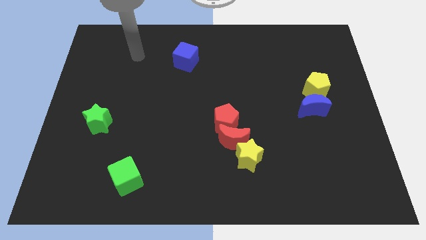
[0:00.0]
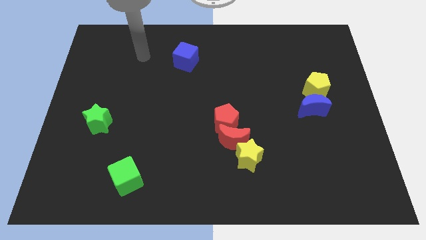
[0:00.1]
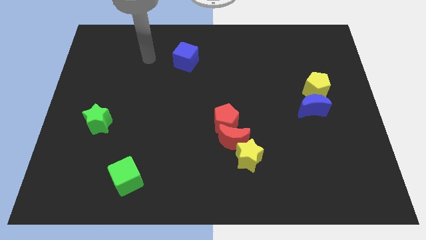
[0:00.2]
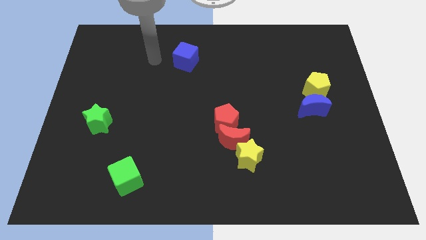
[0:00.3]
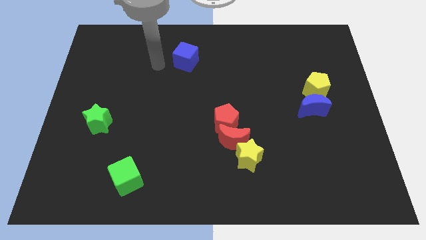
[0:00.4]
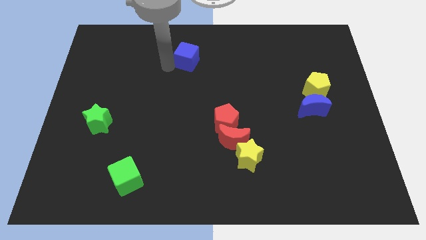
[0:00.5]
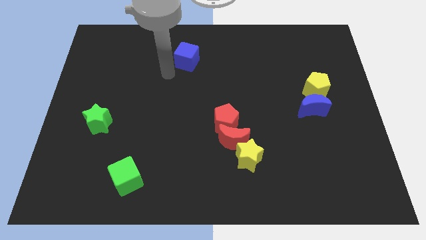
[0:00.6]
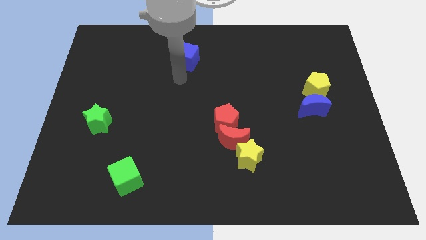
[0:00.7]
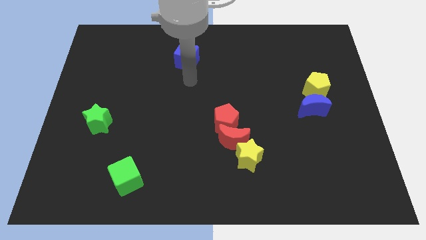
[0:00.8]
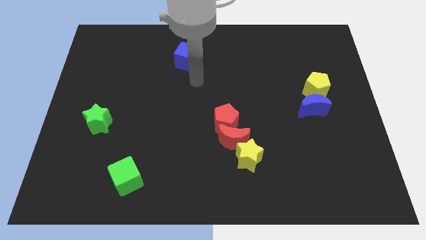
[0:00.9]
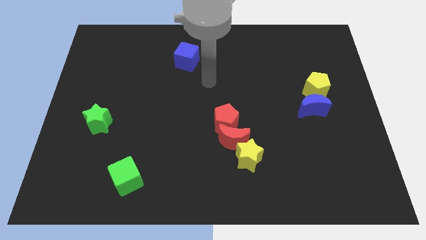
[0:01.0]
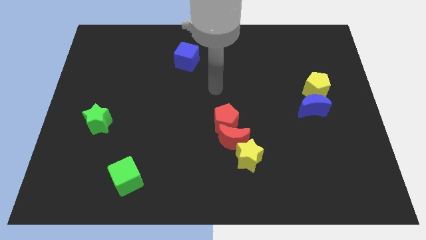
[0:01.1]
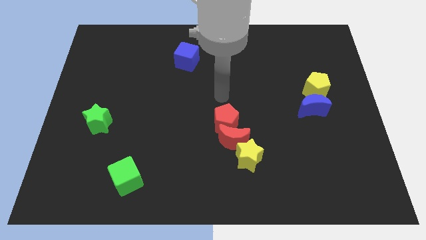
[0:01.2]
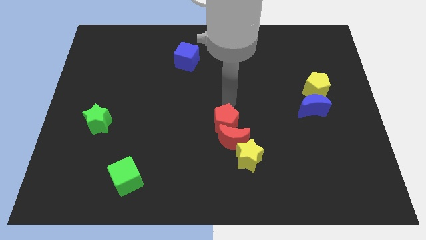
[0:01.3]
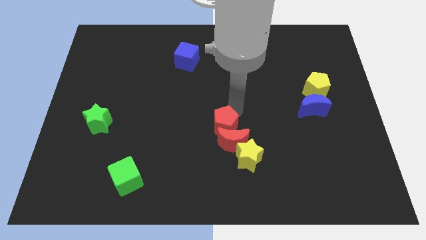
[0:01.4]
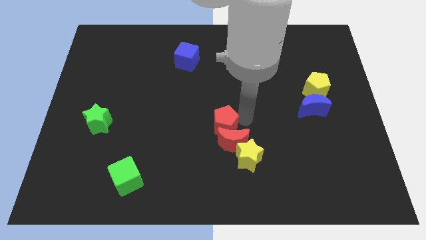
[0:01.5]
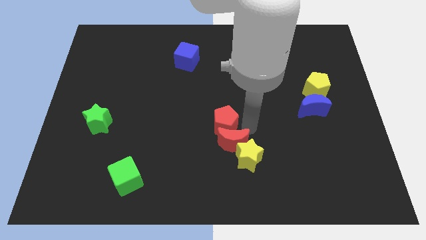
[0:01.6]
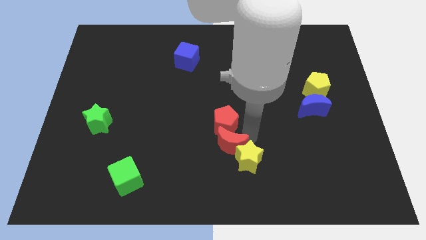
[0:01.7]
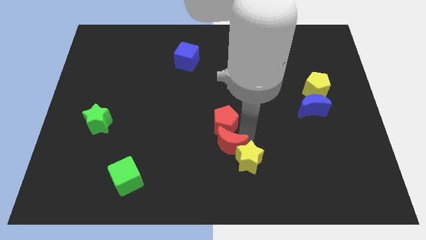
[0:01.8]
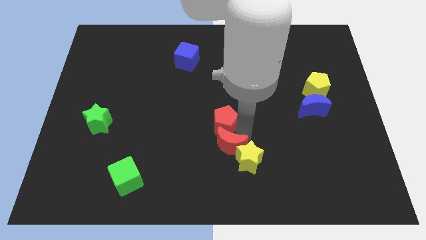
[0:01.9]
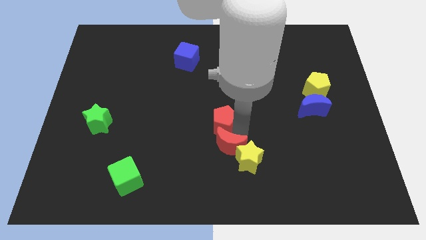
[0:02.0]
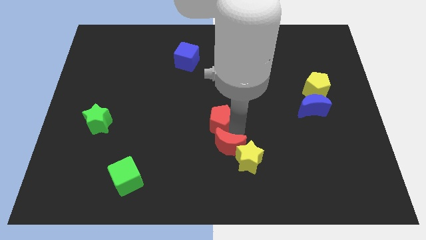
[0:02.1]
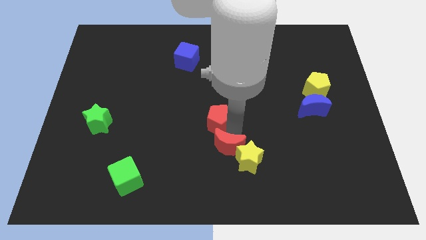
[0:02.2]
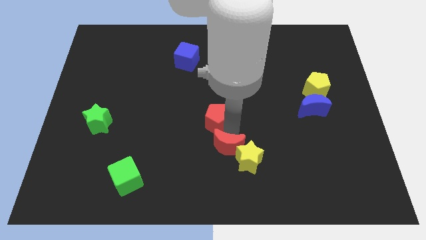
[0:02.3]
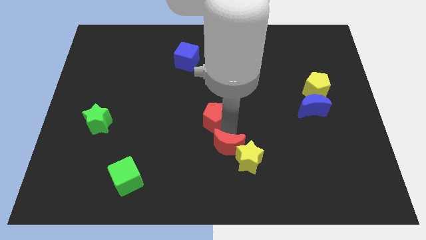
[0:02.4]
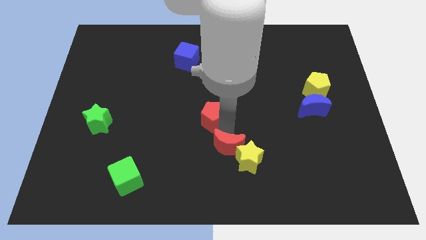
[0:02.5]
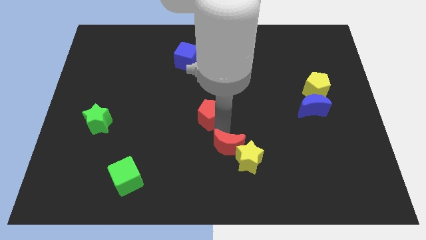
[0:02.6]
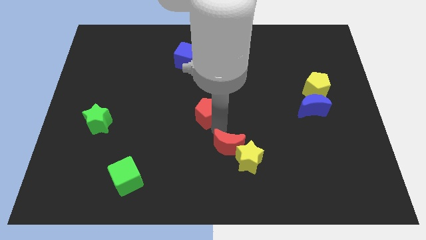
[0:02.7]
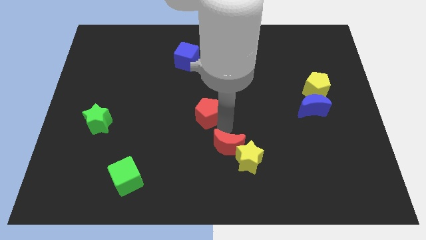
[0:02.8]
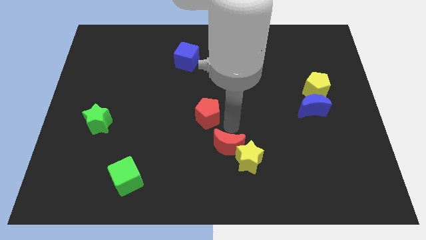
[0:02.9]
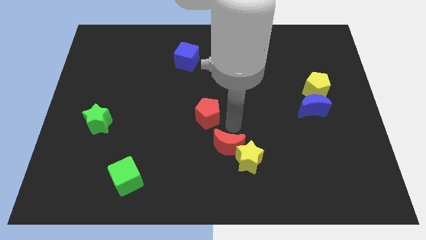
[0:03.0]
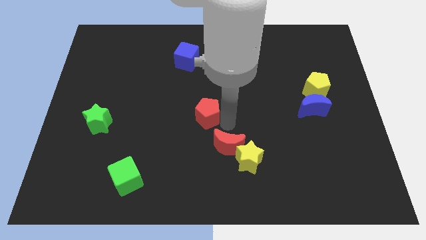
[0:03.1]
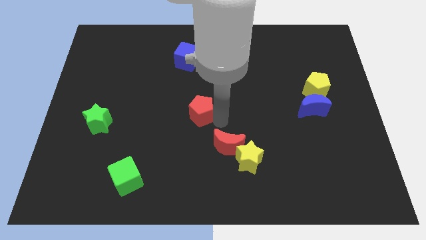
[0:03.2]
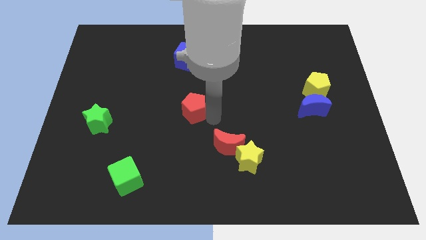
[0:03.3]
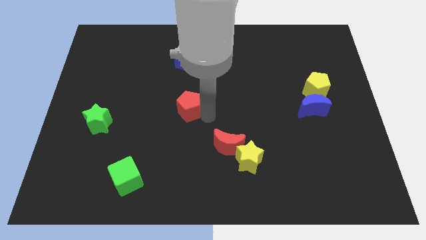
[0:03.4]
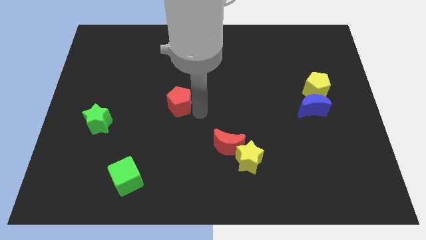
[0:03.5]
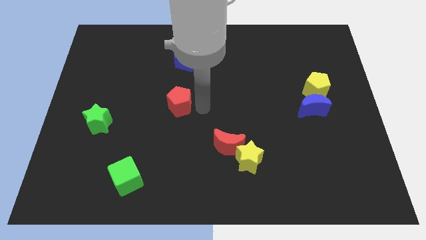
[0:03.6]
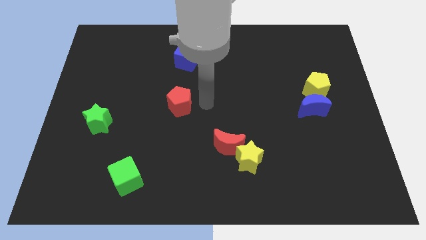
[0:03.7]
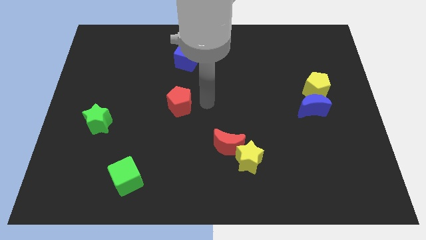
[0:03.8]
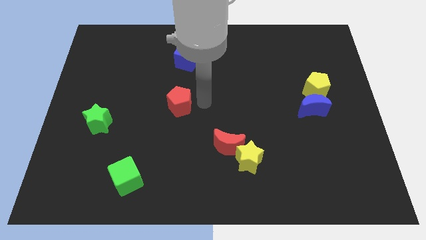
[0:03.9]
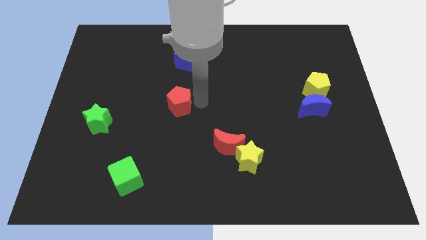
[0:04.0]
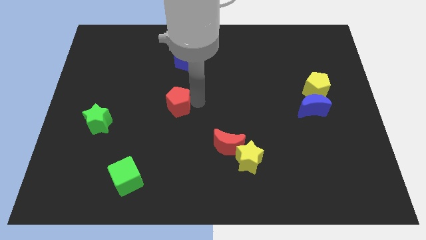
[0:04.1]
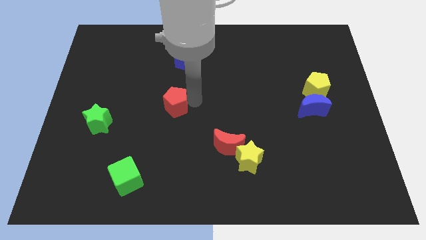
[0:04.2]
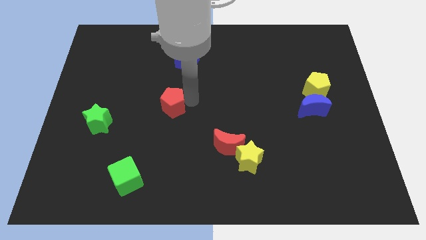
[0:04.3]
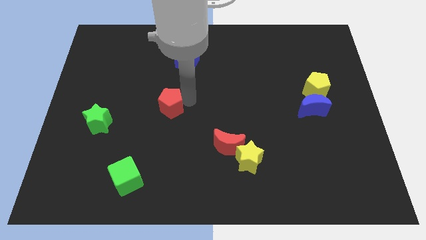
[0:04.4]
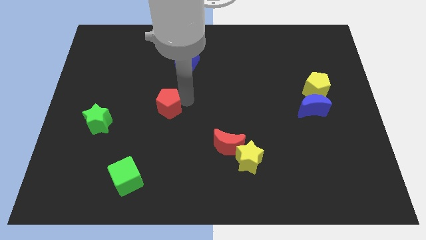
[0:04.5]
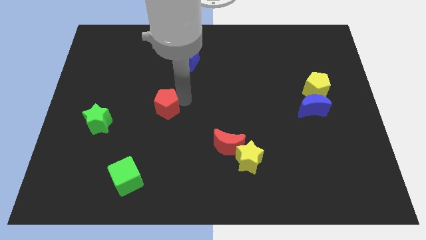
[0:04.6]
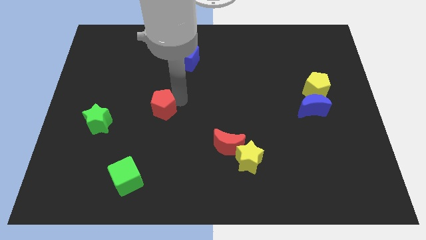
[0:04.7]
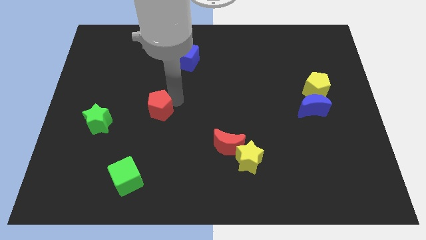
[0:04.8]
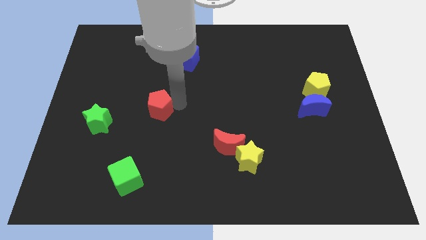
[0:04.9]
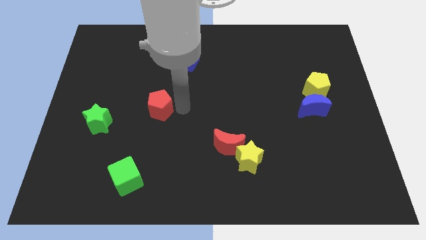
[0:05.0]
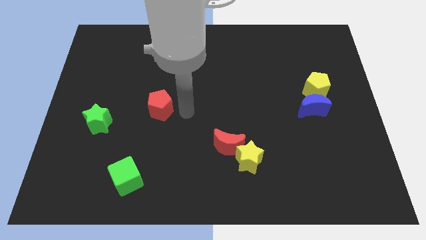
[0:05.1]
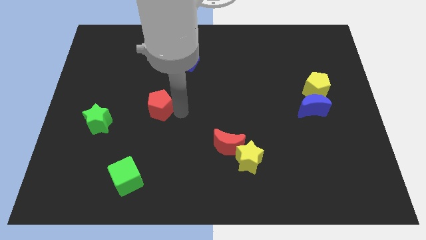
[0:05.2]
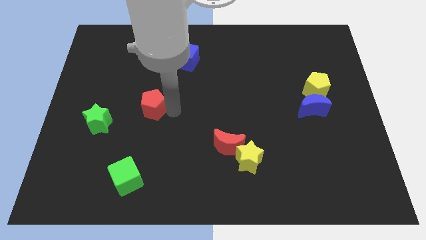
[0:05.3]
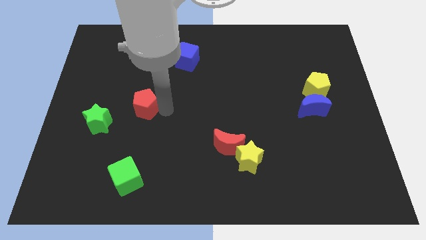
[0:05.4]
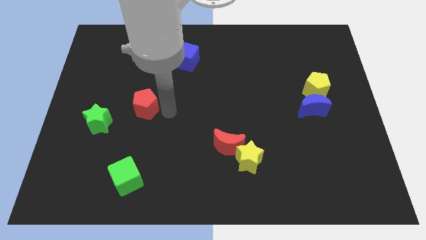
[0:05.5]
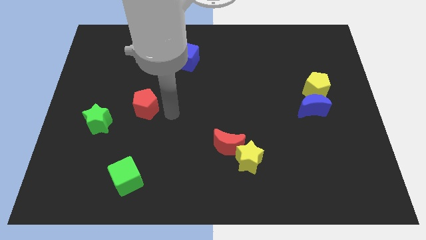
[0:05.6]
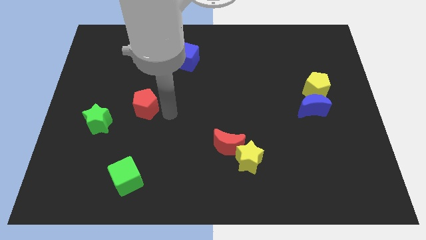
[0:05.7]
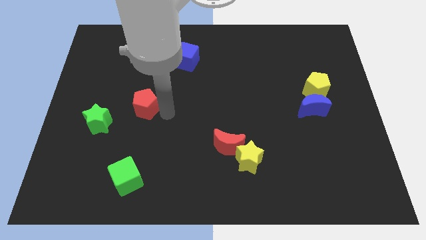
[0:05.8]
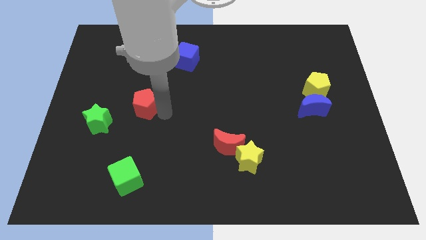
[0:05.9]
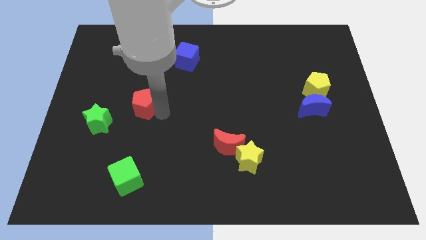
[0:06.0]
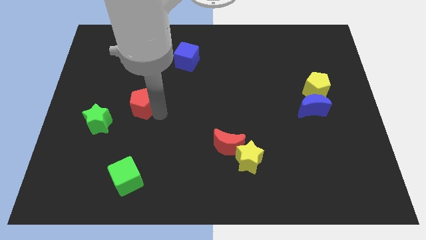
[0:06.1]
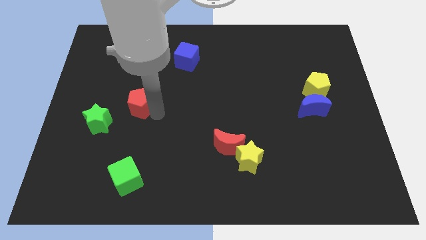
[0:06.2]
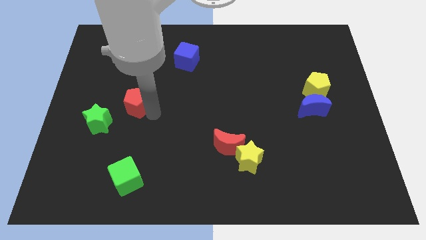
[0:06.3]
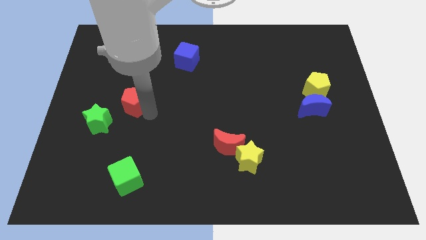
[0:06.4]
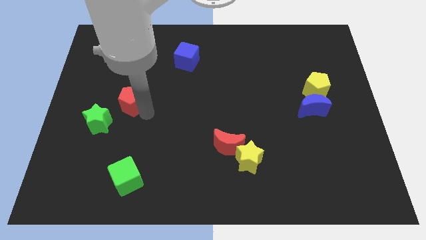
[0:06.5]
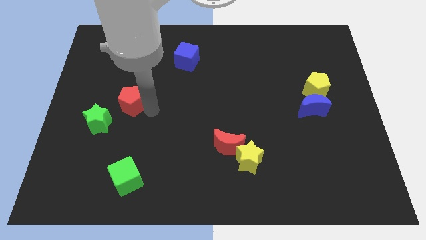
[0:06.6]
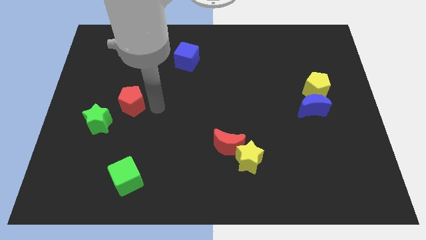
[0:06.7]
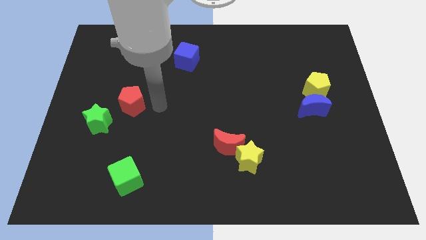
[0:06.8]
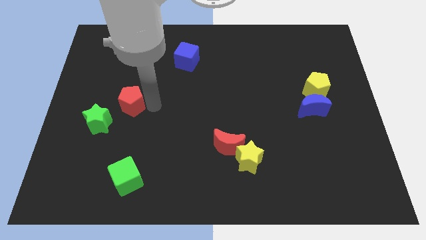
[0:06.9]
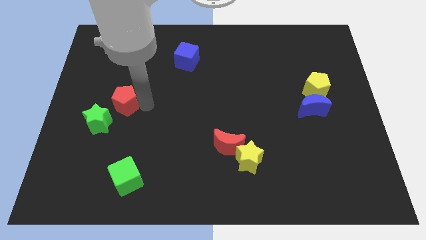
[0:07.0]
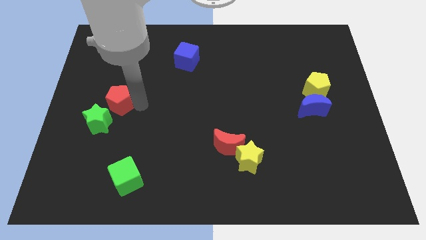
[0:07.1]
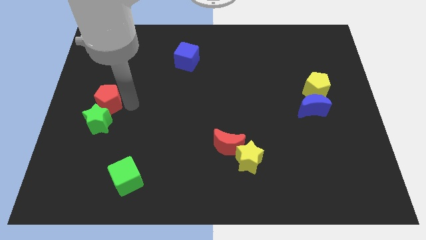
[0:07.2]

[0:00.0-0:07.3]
move the red pentagon to the left side of the board
